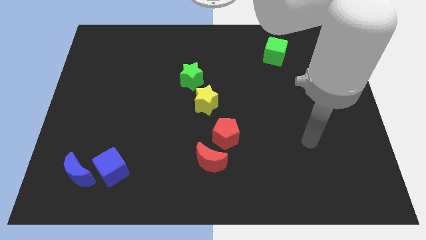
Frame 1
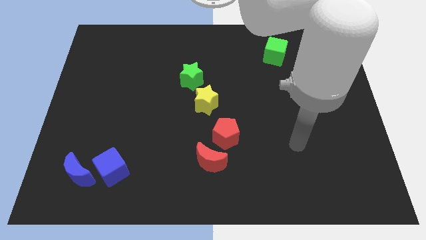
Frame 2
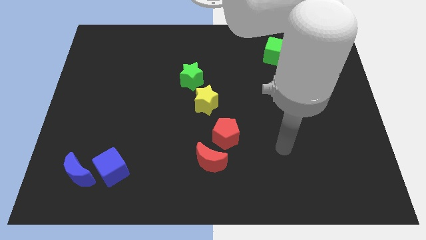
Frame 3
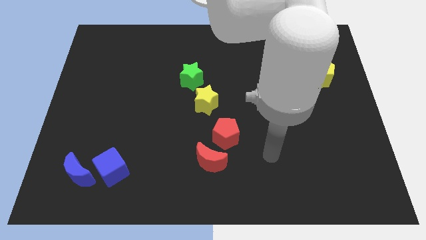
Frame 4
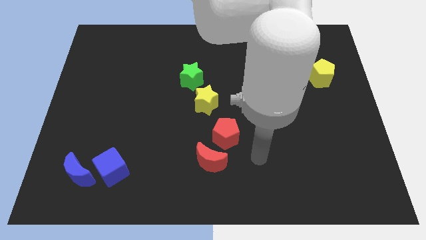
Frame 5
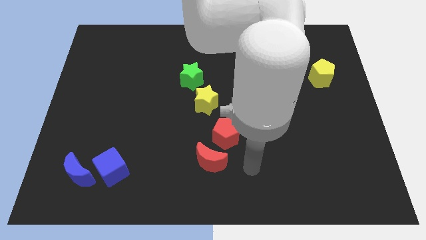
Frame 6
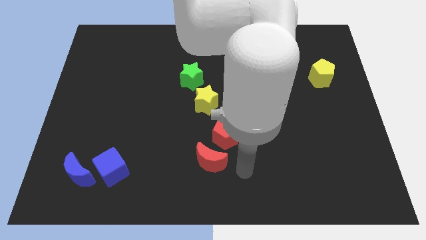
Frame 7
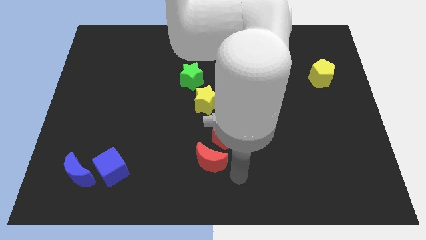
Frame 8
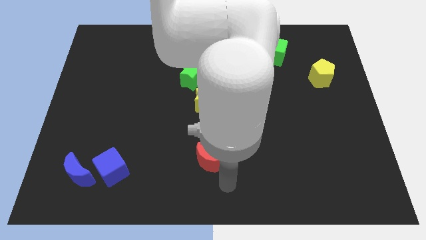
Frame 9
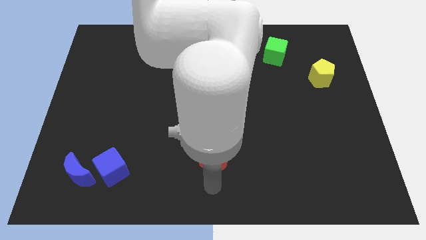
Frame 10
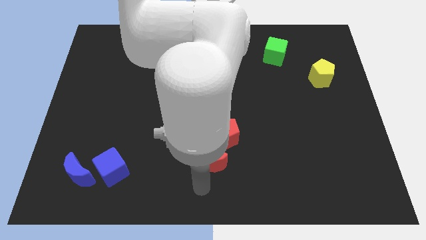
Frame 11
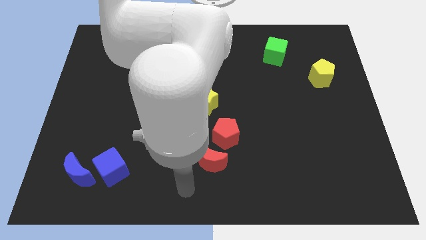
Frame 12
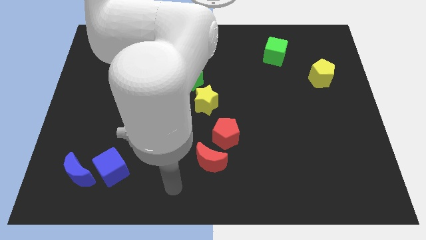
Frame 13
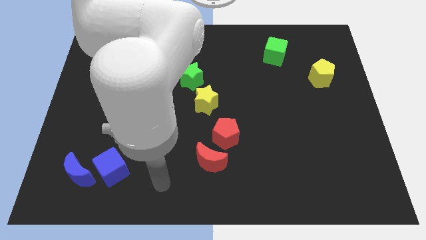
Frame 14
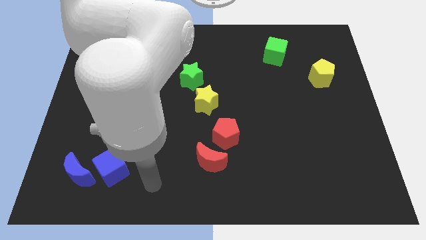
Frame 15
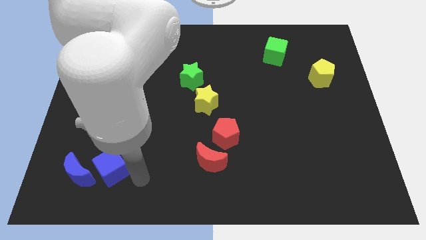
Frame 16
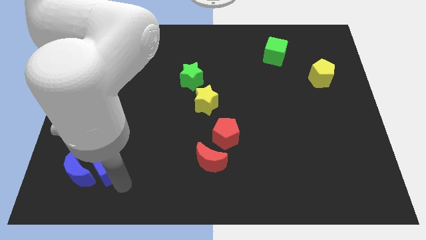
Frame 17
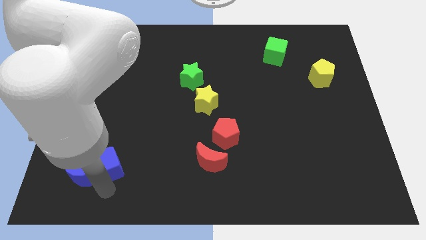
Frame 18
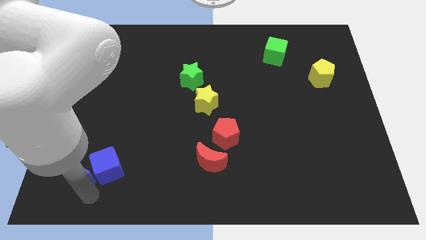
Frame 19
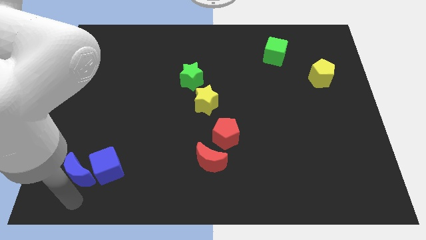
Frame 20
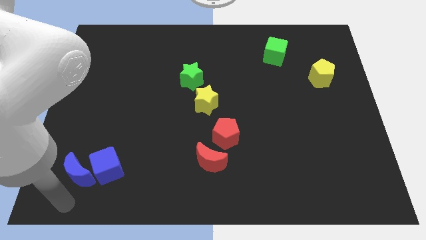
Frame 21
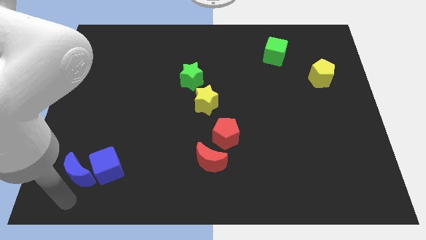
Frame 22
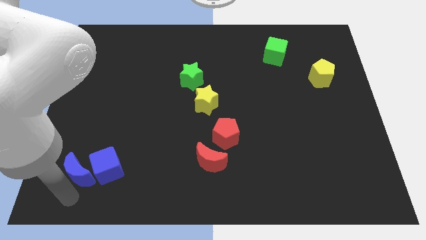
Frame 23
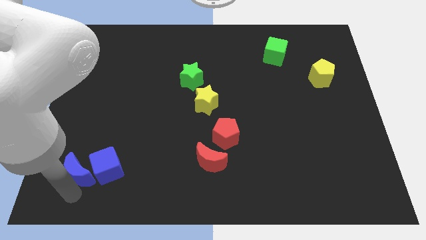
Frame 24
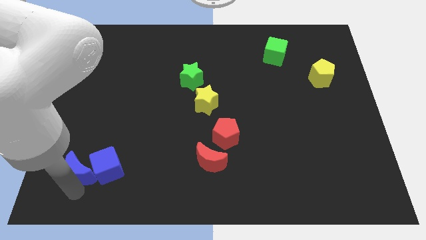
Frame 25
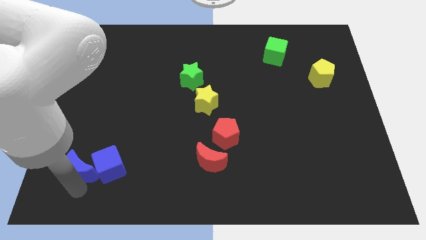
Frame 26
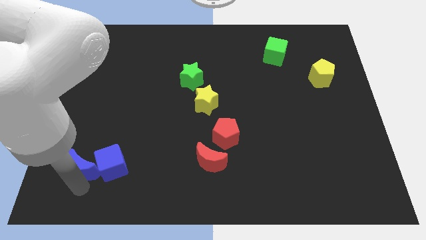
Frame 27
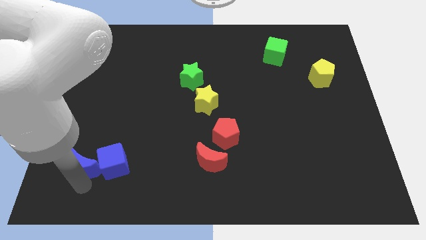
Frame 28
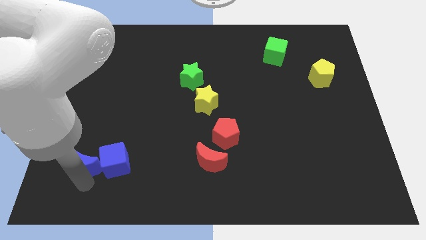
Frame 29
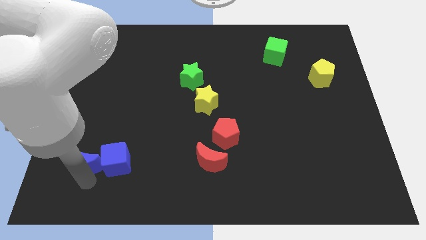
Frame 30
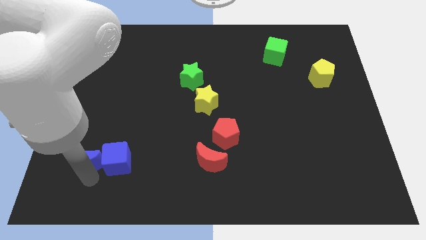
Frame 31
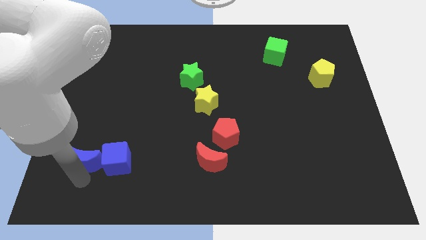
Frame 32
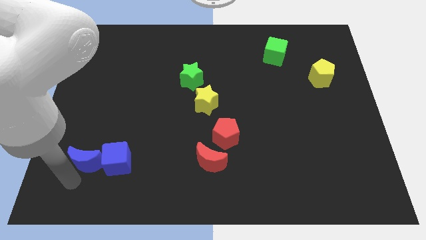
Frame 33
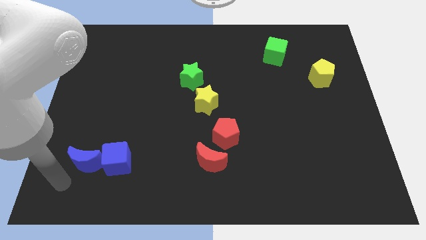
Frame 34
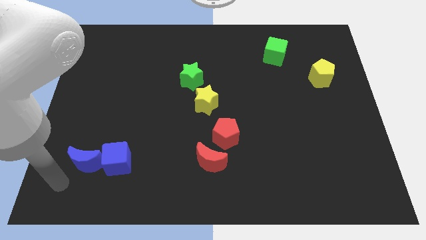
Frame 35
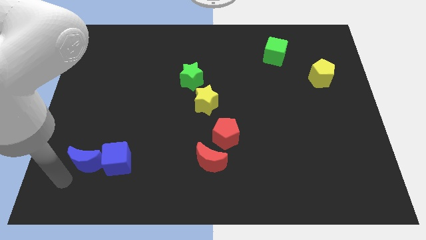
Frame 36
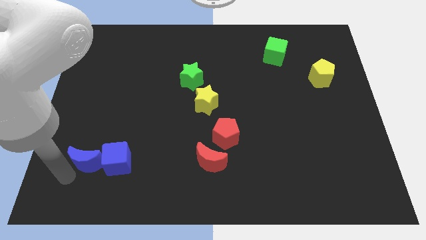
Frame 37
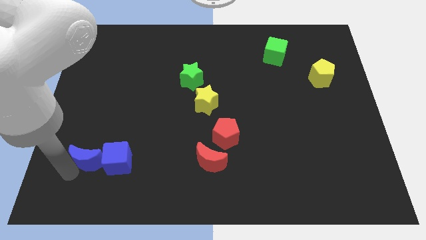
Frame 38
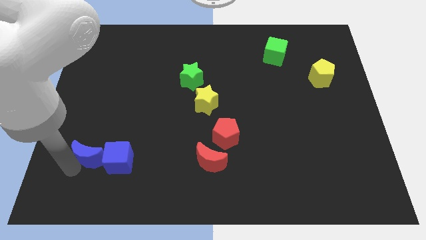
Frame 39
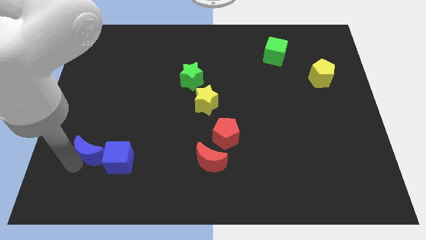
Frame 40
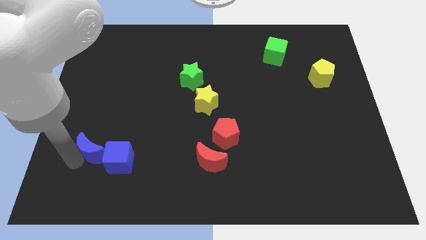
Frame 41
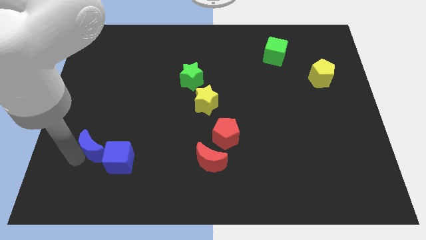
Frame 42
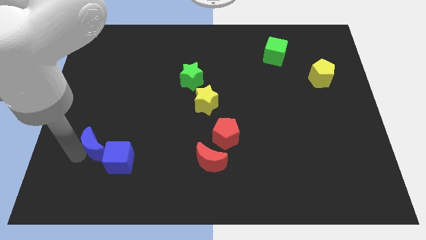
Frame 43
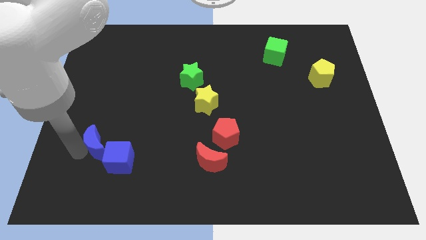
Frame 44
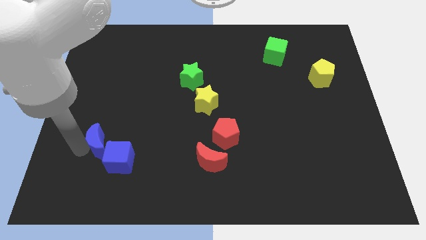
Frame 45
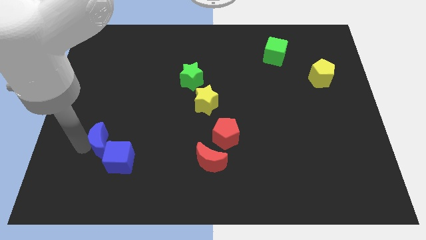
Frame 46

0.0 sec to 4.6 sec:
move the blue moon upwards and right diagonally a little bit

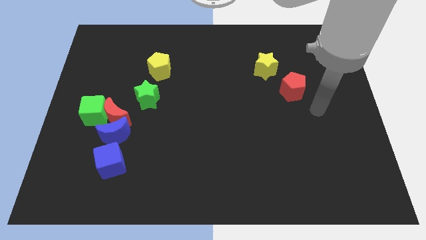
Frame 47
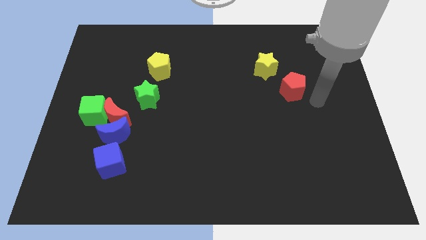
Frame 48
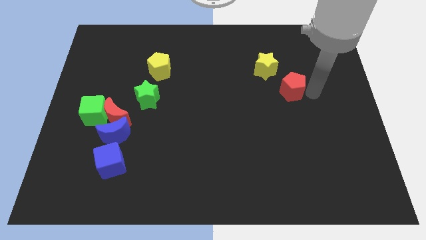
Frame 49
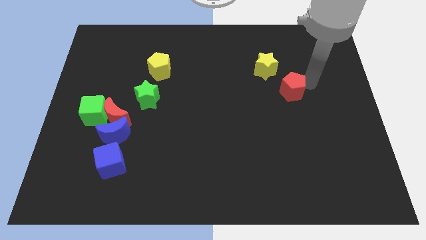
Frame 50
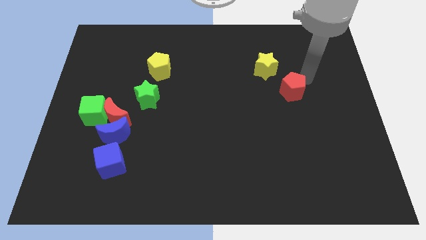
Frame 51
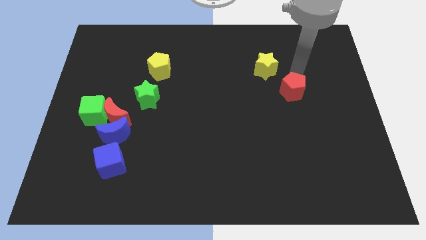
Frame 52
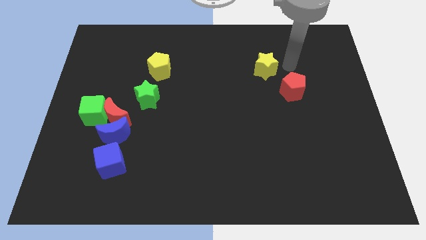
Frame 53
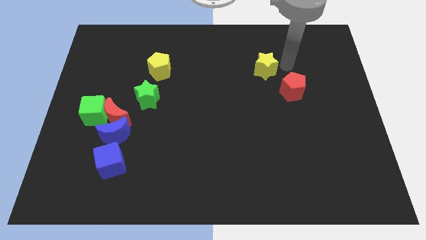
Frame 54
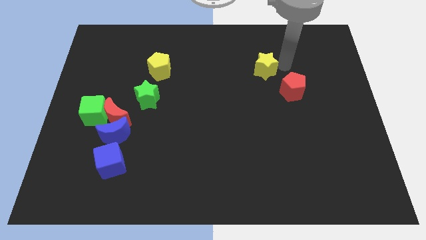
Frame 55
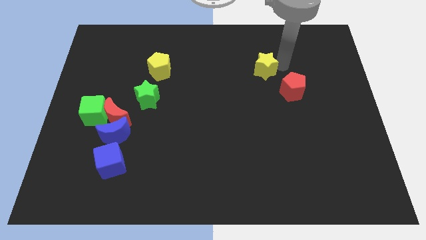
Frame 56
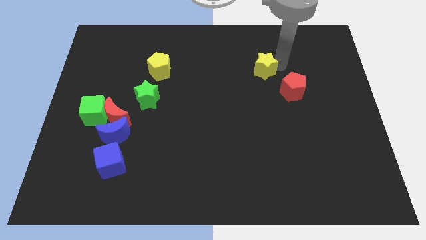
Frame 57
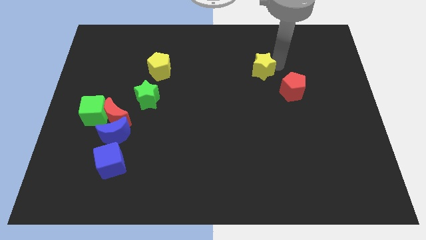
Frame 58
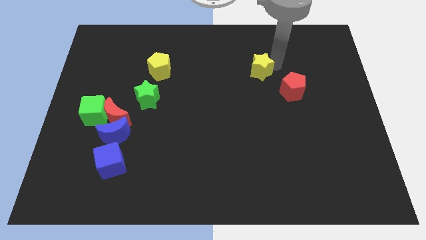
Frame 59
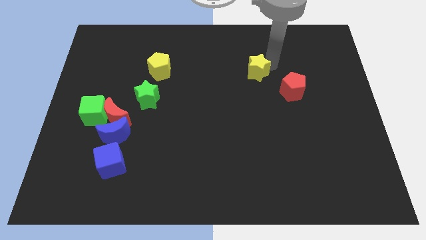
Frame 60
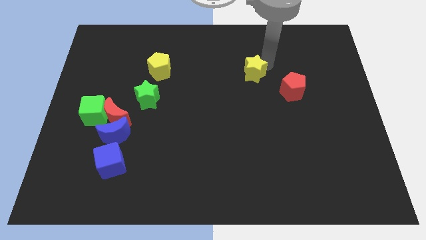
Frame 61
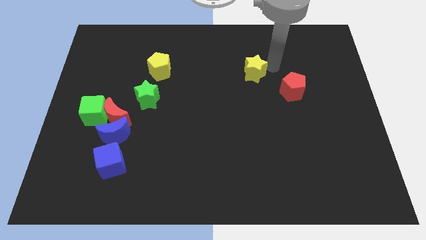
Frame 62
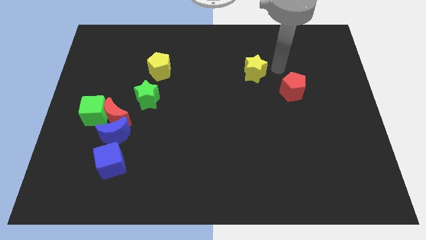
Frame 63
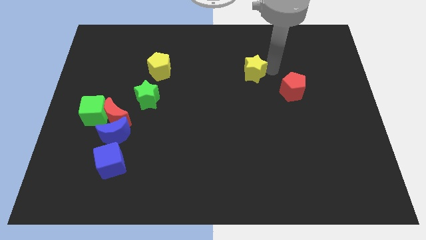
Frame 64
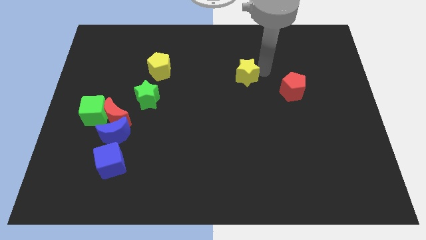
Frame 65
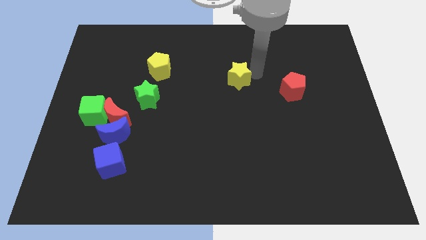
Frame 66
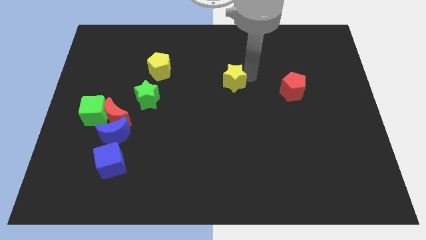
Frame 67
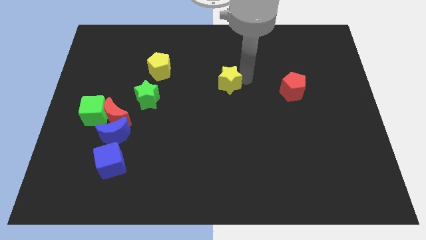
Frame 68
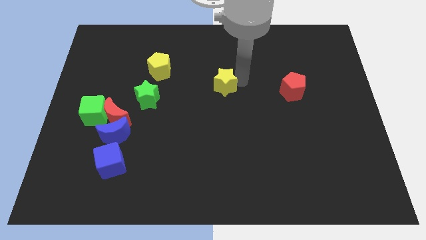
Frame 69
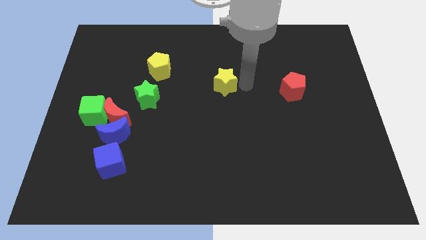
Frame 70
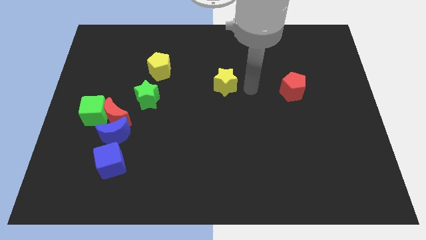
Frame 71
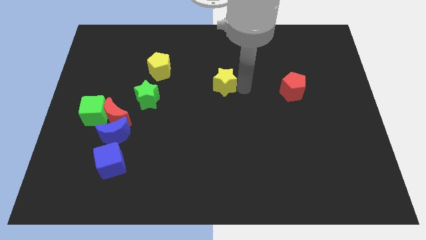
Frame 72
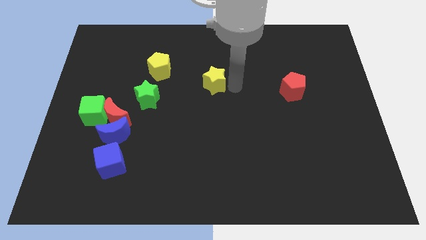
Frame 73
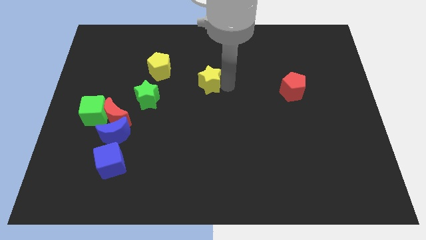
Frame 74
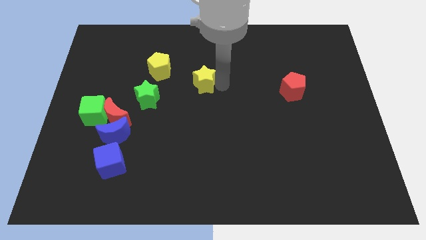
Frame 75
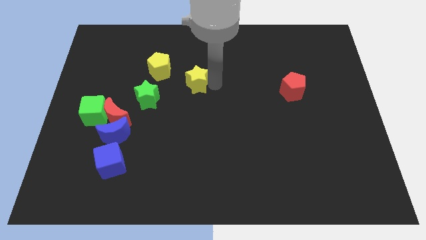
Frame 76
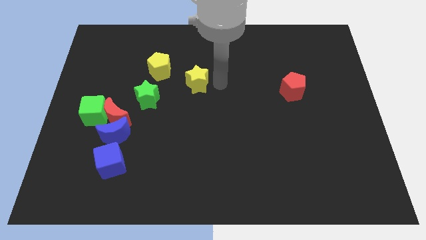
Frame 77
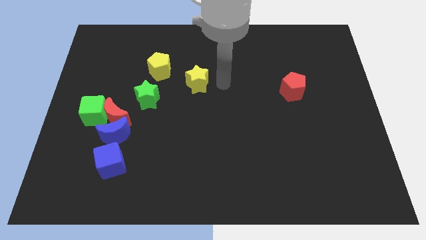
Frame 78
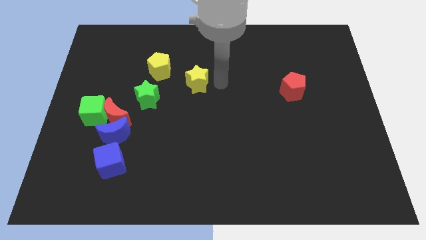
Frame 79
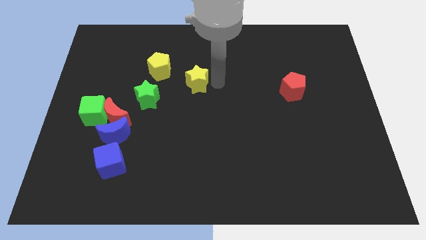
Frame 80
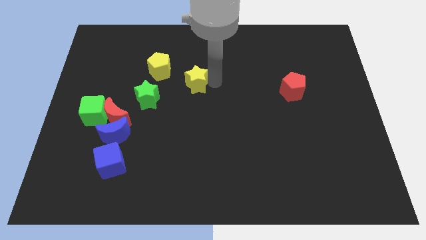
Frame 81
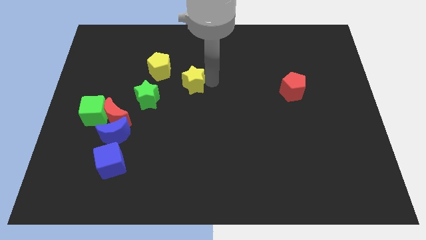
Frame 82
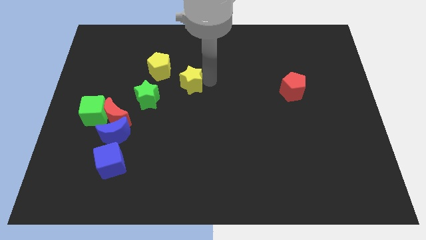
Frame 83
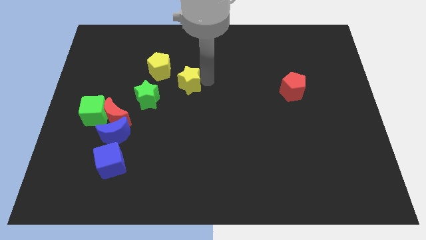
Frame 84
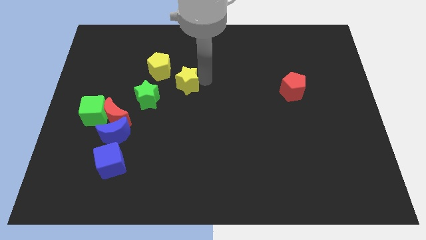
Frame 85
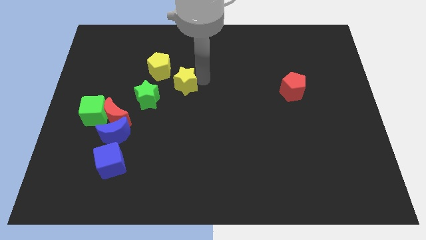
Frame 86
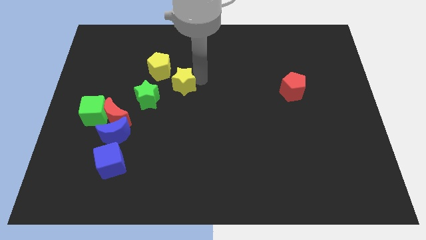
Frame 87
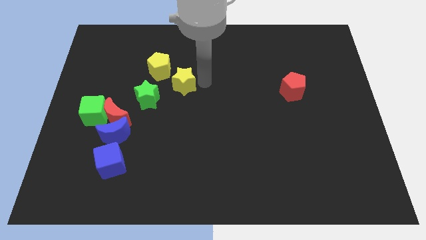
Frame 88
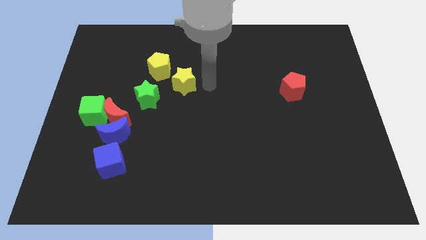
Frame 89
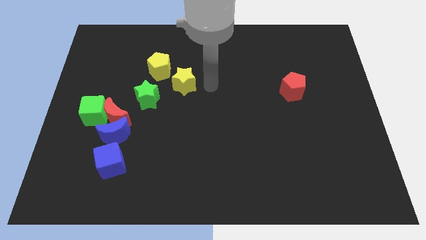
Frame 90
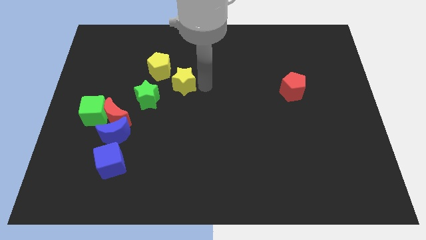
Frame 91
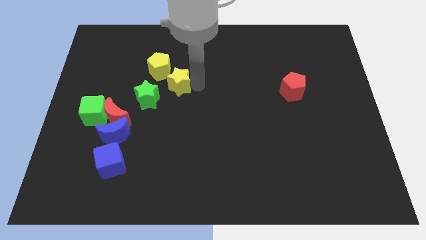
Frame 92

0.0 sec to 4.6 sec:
slide the yellow star to the left
